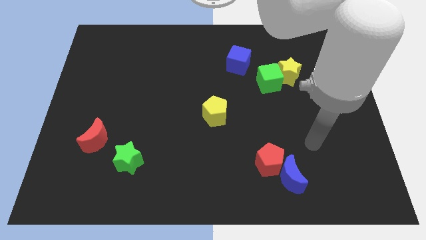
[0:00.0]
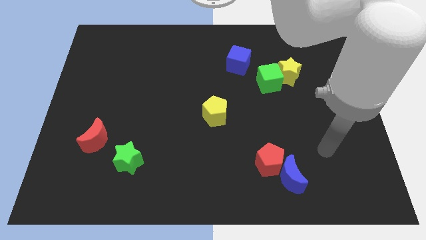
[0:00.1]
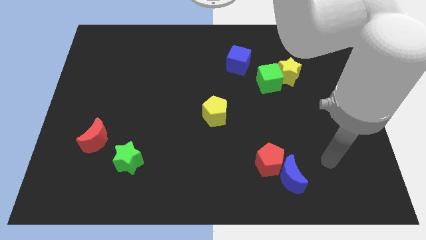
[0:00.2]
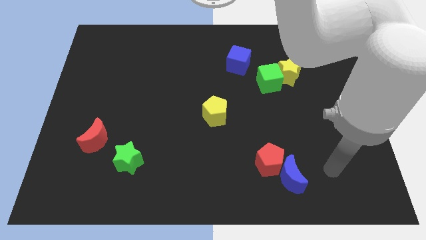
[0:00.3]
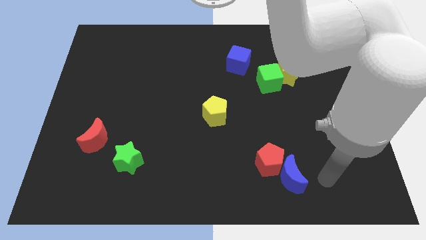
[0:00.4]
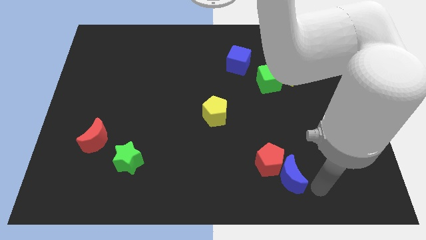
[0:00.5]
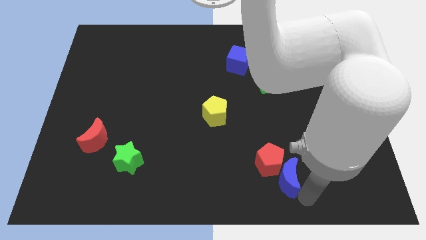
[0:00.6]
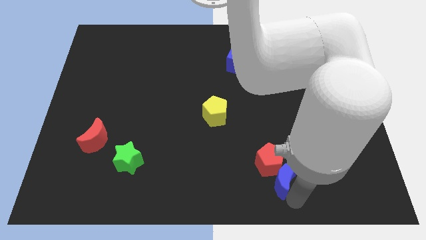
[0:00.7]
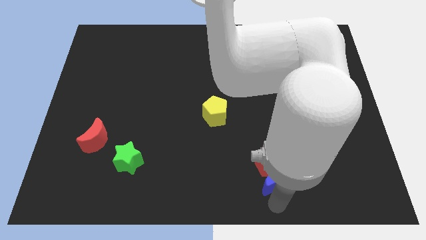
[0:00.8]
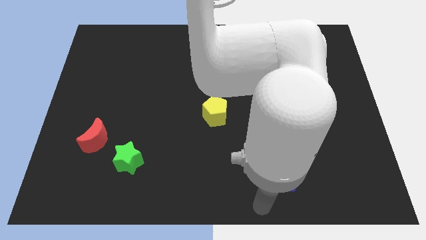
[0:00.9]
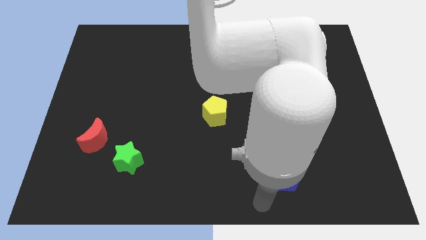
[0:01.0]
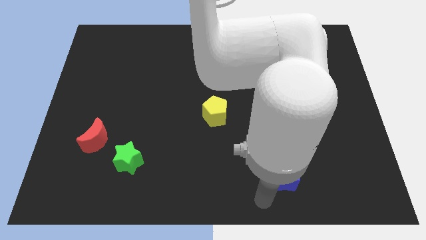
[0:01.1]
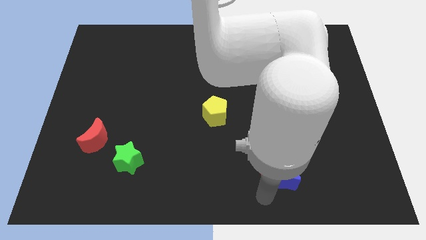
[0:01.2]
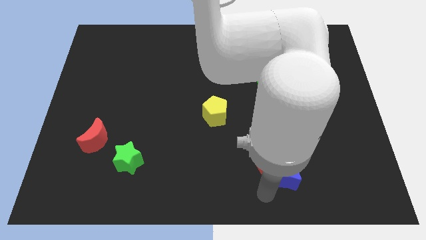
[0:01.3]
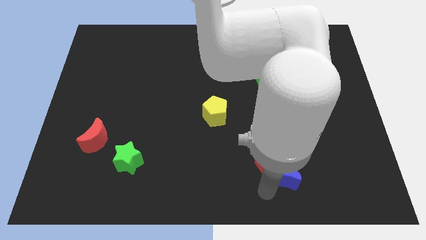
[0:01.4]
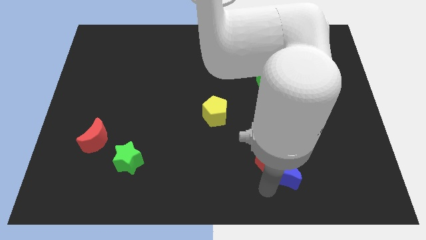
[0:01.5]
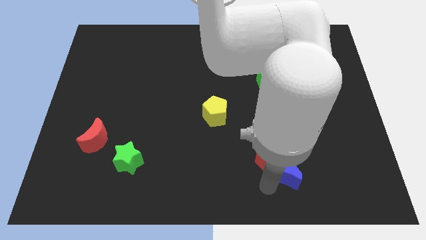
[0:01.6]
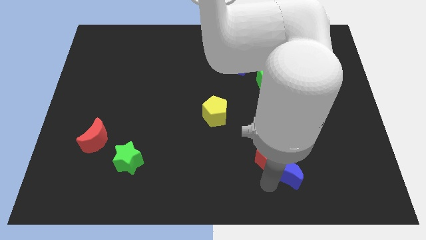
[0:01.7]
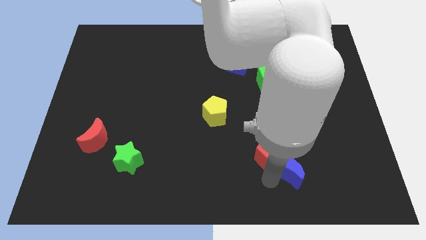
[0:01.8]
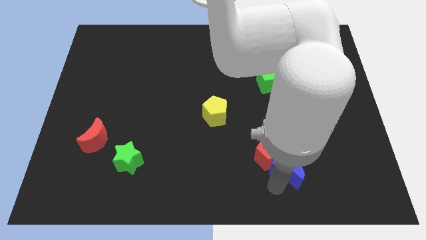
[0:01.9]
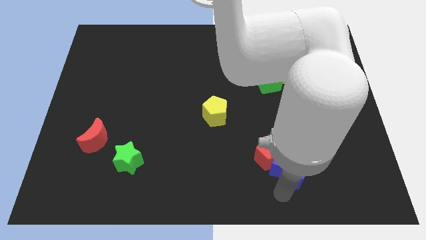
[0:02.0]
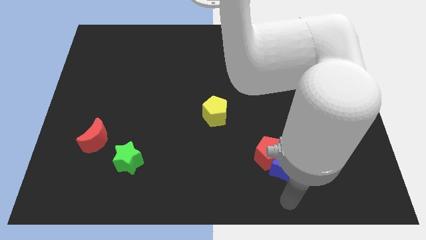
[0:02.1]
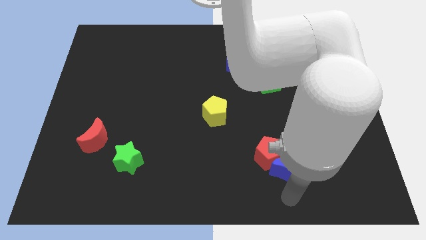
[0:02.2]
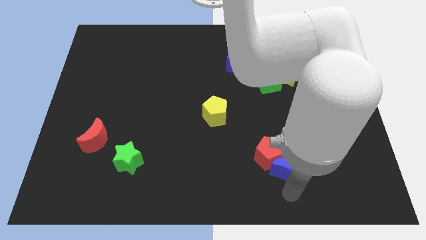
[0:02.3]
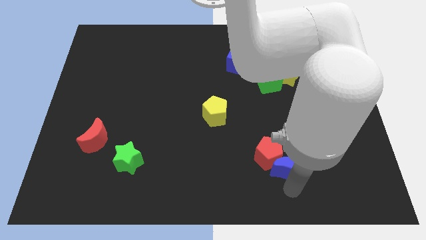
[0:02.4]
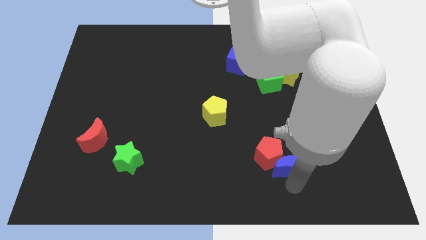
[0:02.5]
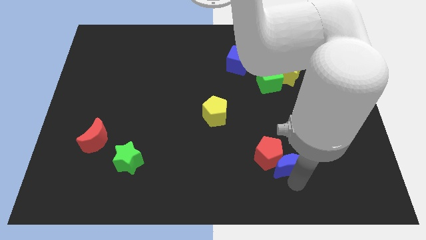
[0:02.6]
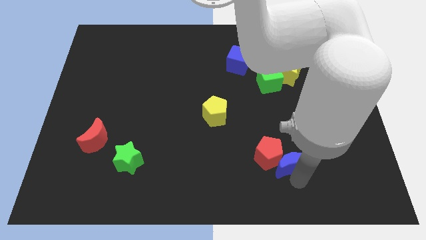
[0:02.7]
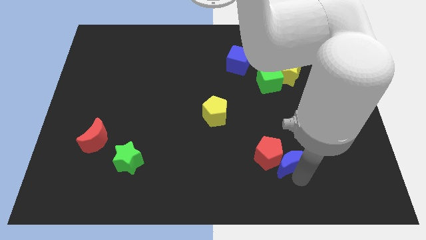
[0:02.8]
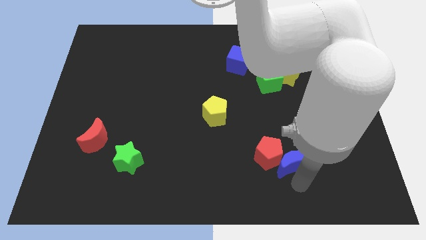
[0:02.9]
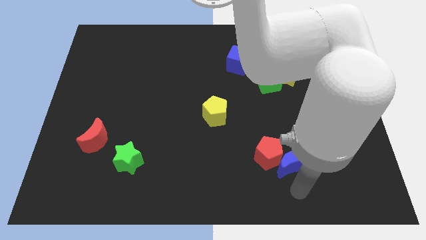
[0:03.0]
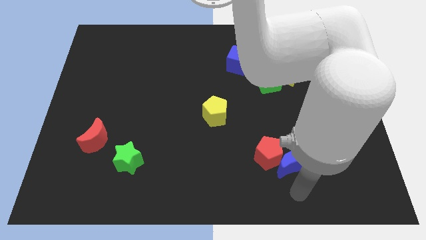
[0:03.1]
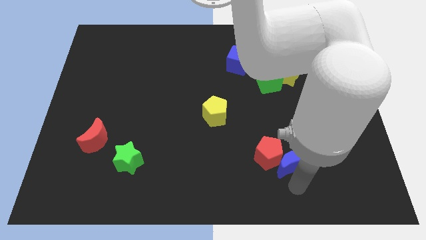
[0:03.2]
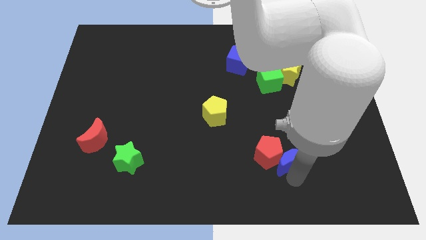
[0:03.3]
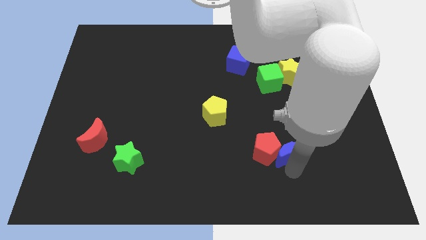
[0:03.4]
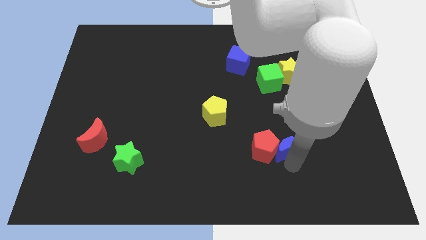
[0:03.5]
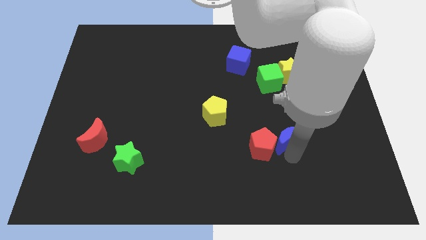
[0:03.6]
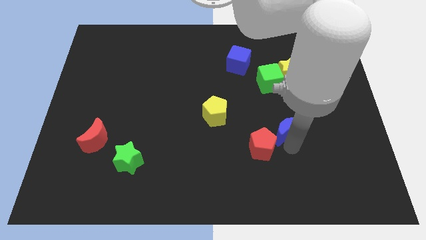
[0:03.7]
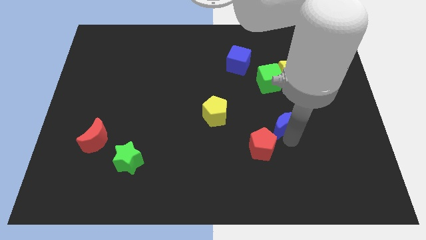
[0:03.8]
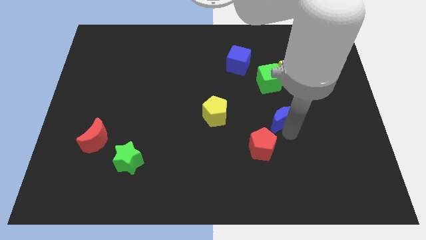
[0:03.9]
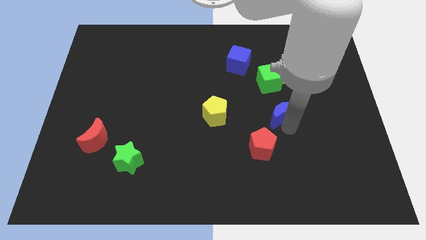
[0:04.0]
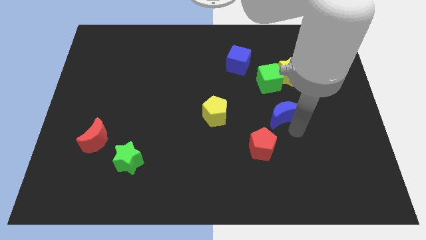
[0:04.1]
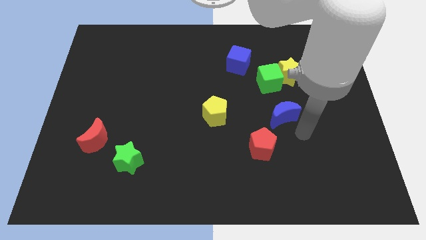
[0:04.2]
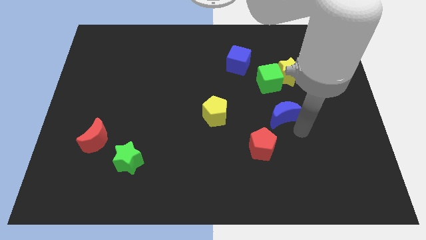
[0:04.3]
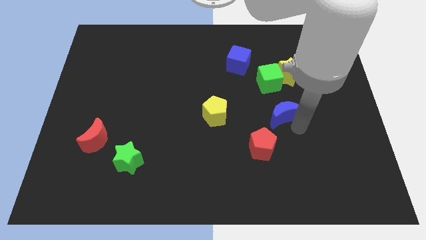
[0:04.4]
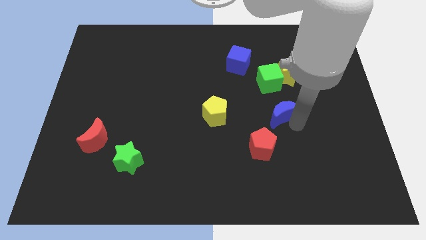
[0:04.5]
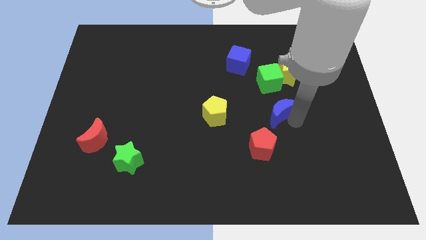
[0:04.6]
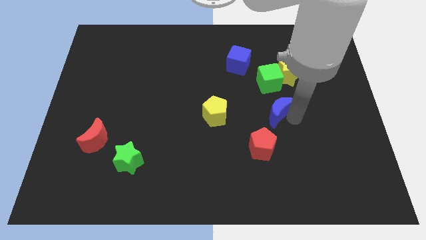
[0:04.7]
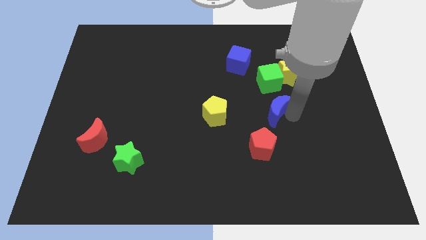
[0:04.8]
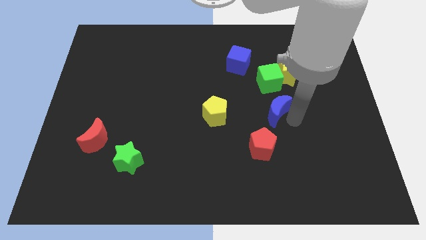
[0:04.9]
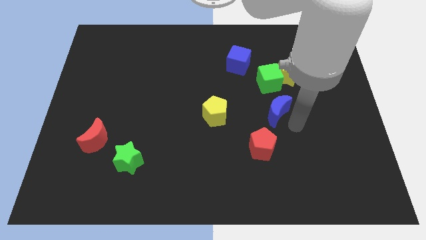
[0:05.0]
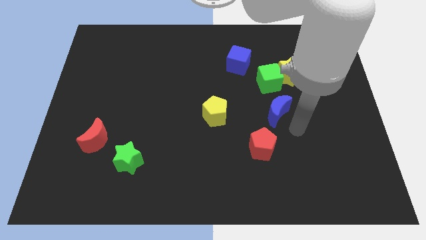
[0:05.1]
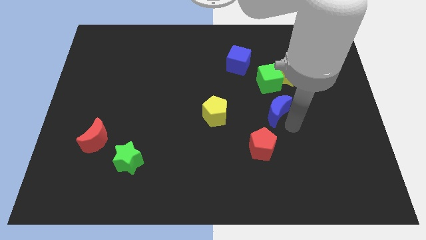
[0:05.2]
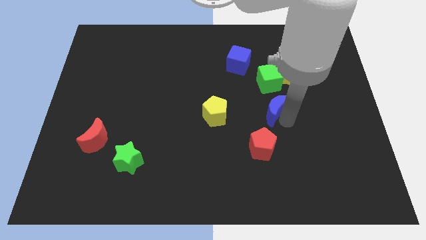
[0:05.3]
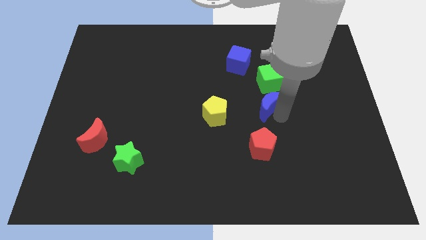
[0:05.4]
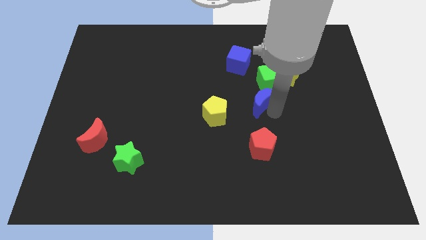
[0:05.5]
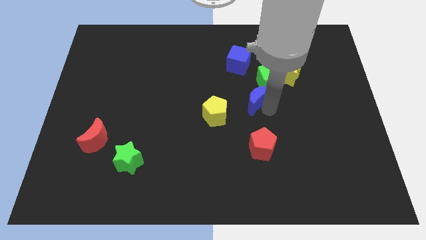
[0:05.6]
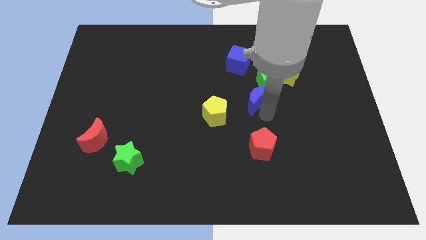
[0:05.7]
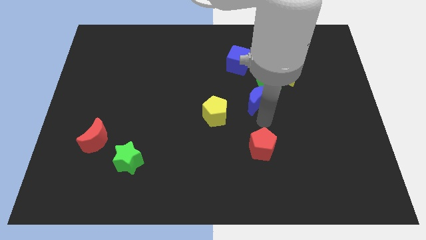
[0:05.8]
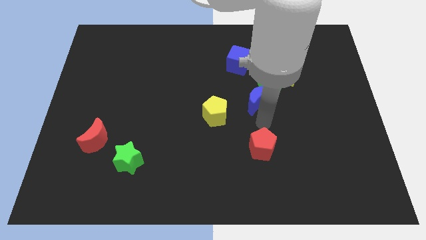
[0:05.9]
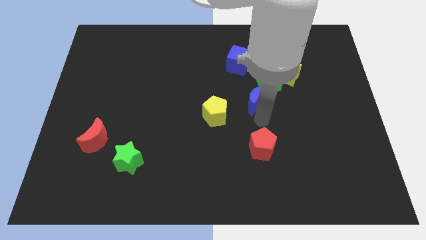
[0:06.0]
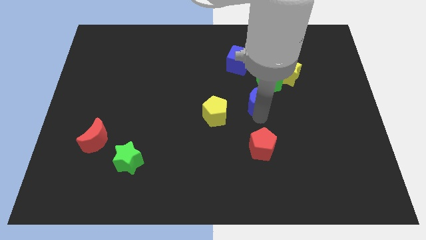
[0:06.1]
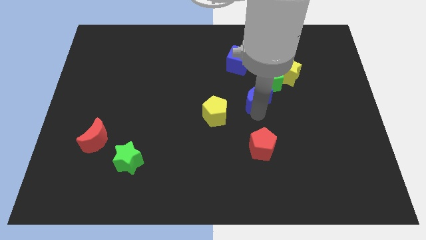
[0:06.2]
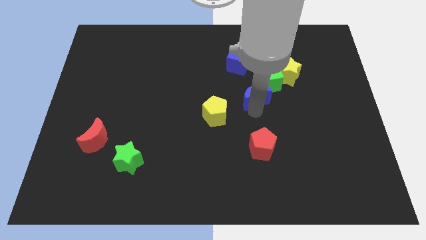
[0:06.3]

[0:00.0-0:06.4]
slide the blue moon up

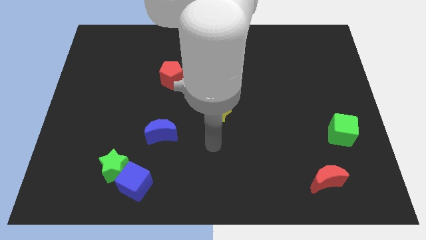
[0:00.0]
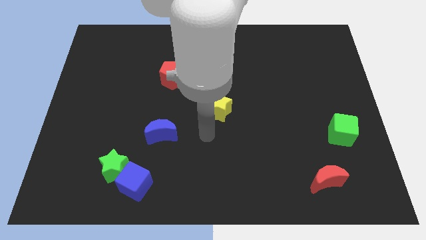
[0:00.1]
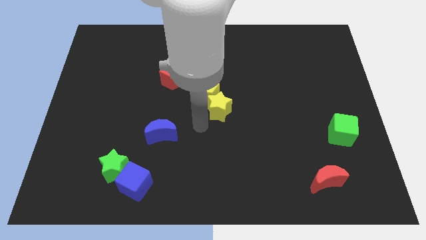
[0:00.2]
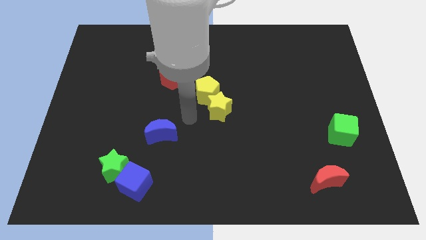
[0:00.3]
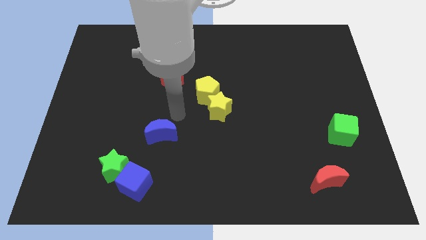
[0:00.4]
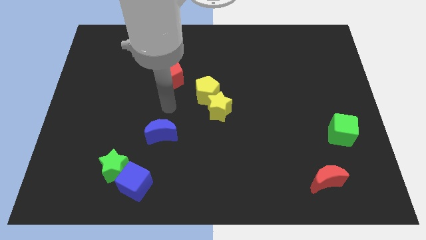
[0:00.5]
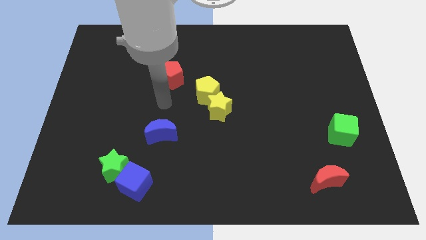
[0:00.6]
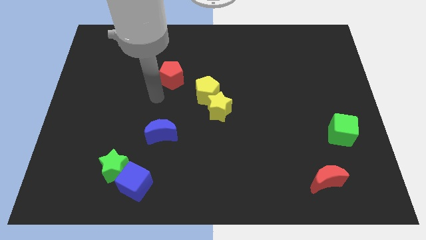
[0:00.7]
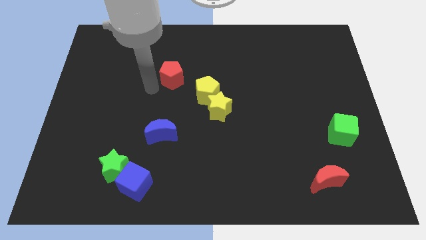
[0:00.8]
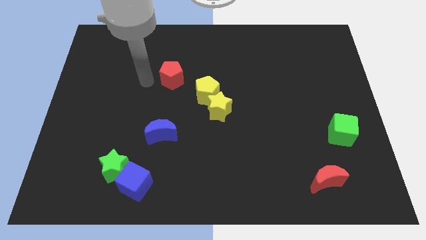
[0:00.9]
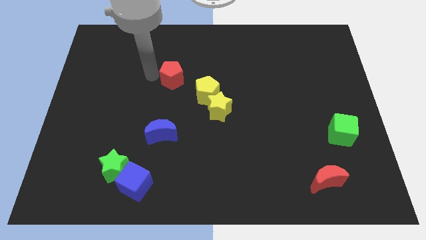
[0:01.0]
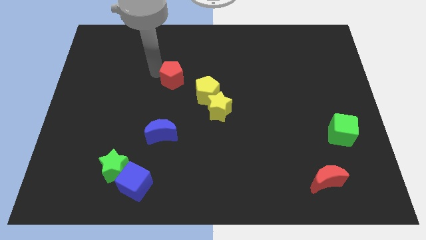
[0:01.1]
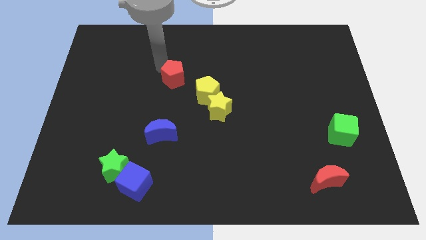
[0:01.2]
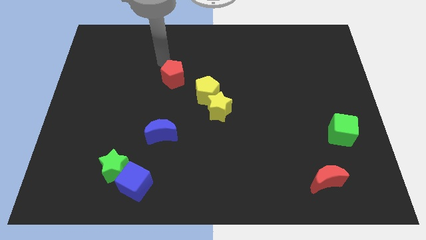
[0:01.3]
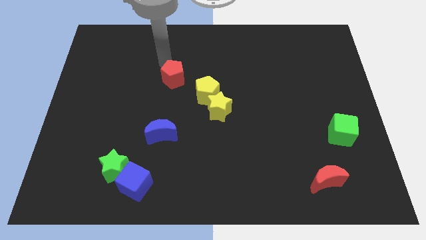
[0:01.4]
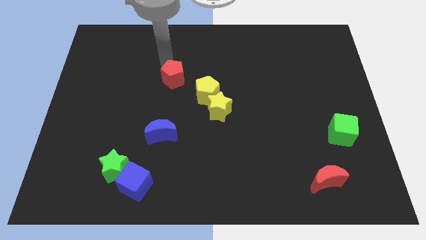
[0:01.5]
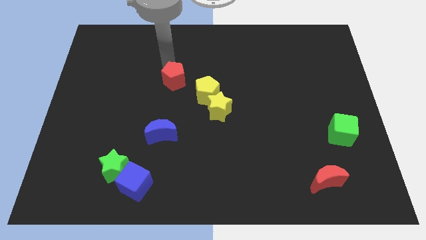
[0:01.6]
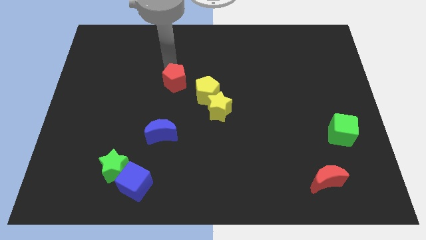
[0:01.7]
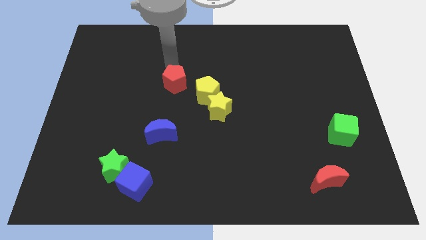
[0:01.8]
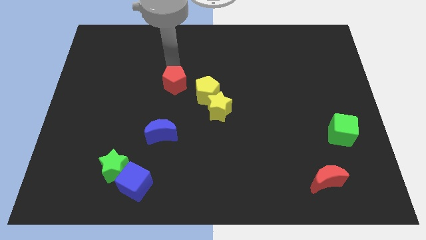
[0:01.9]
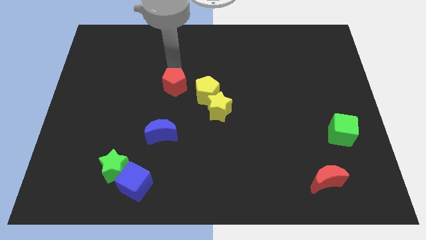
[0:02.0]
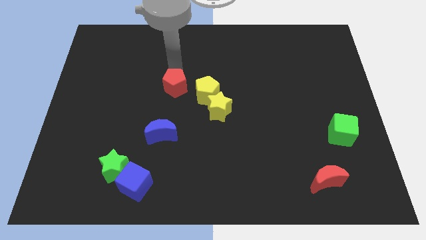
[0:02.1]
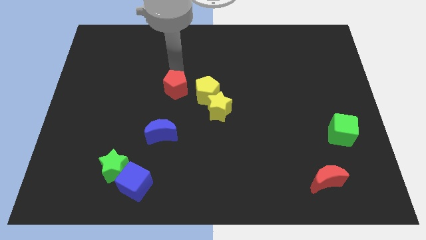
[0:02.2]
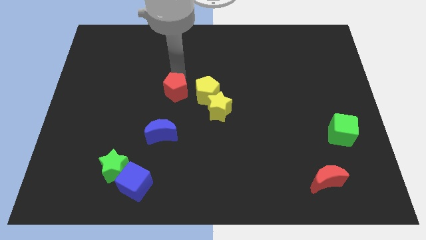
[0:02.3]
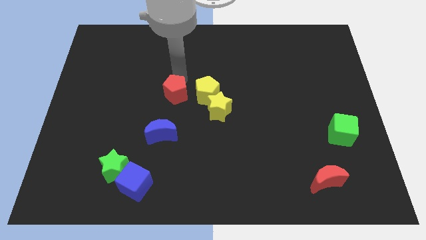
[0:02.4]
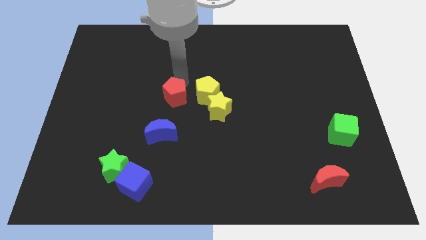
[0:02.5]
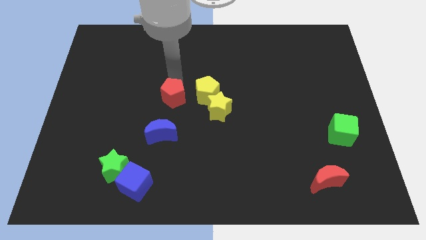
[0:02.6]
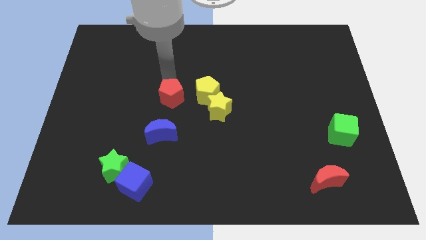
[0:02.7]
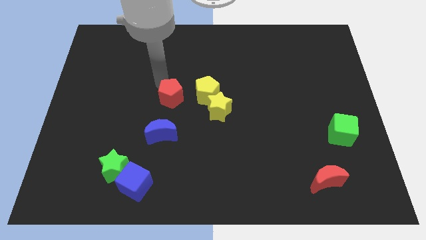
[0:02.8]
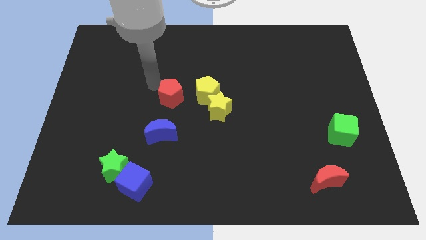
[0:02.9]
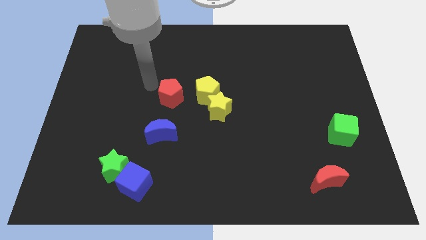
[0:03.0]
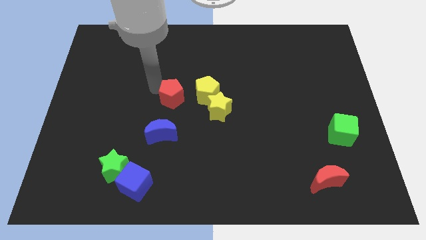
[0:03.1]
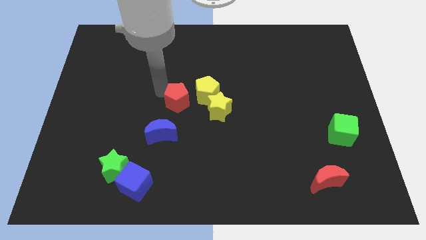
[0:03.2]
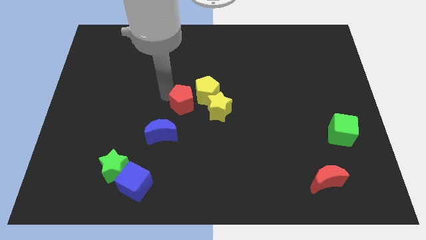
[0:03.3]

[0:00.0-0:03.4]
move the red pentagon downwards and to the right a bit
